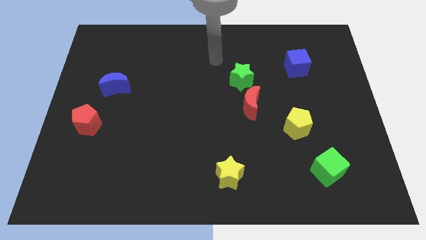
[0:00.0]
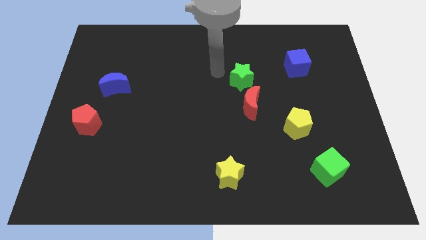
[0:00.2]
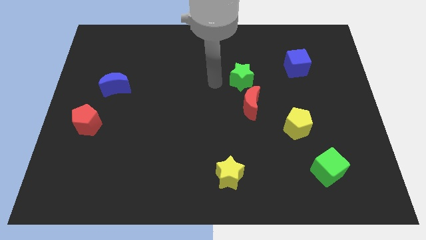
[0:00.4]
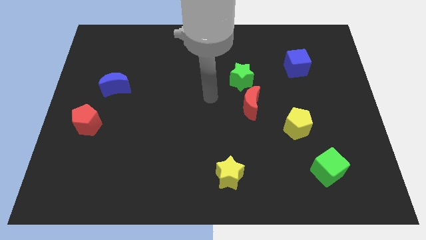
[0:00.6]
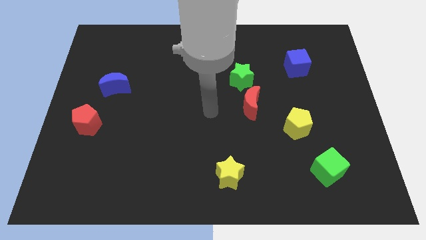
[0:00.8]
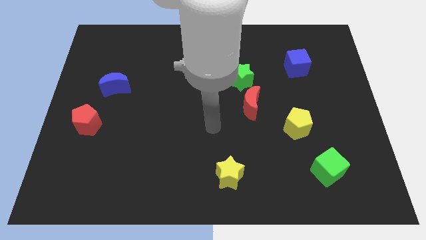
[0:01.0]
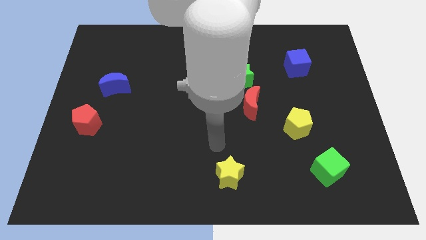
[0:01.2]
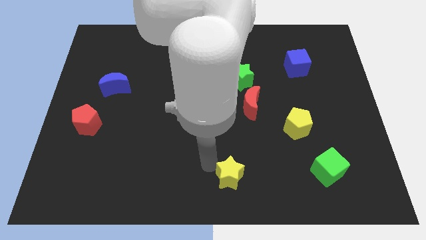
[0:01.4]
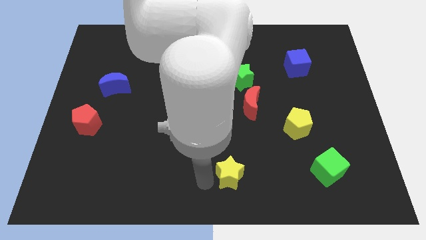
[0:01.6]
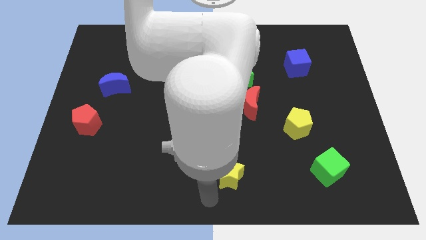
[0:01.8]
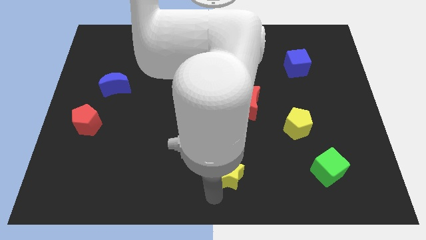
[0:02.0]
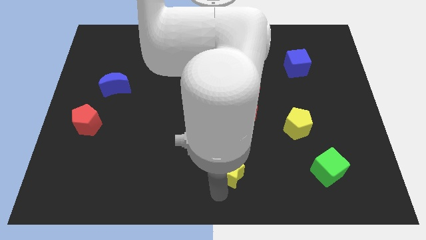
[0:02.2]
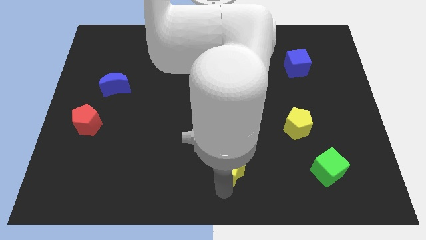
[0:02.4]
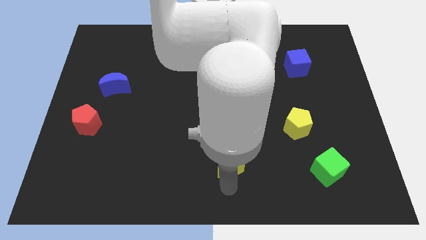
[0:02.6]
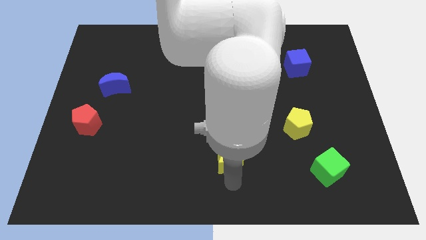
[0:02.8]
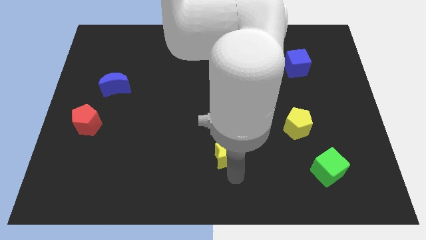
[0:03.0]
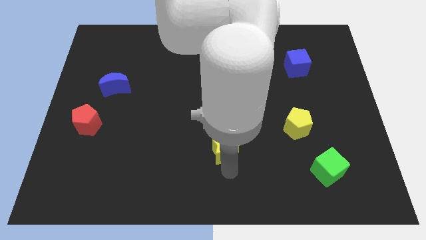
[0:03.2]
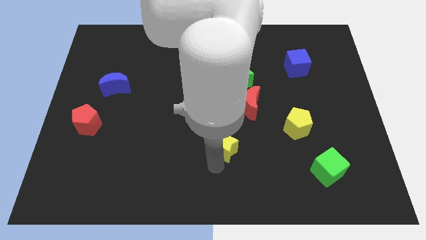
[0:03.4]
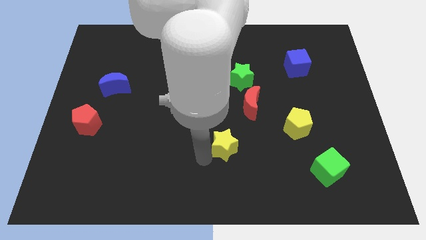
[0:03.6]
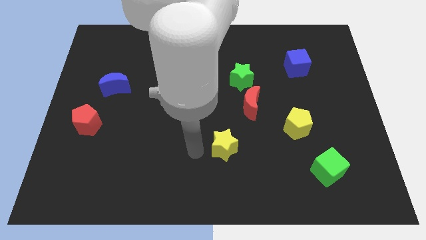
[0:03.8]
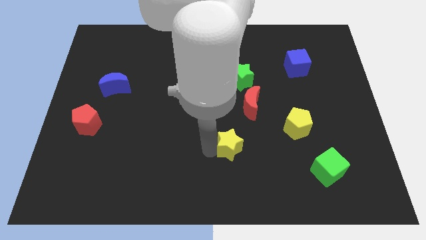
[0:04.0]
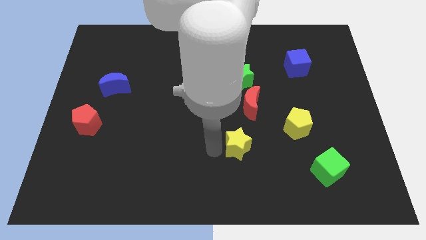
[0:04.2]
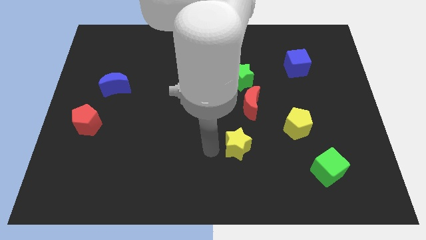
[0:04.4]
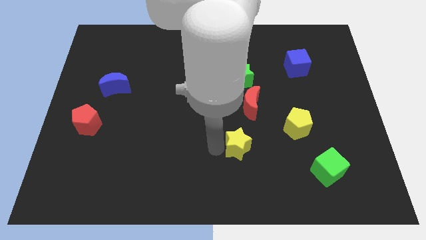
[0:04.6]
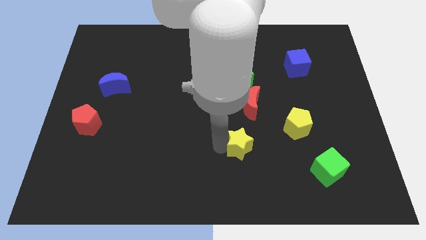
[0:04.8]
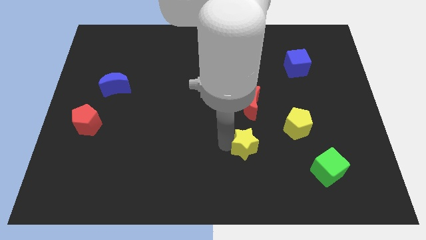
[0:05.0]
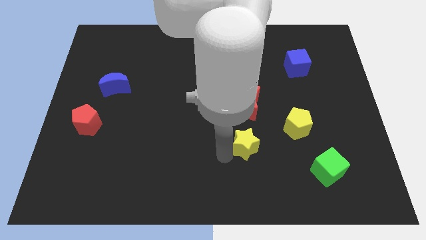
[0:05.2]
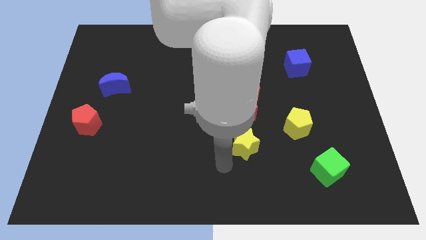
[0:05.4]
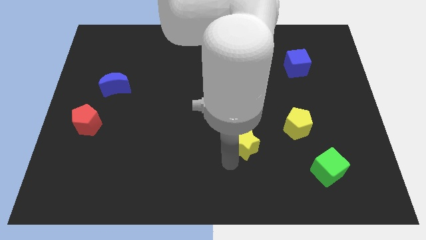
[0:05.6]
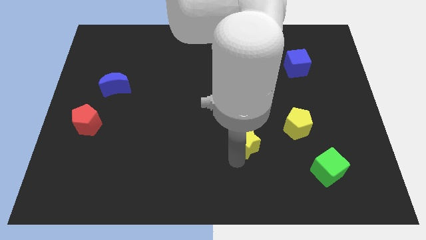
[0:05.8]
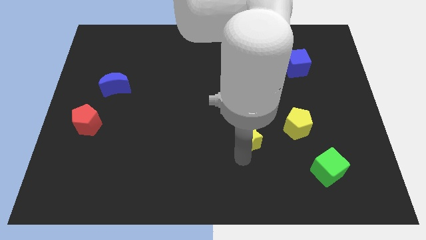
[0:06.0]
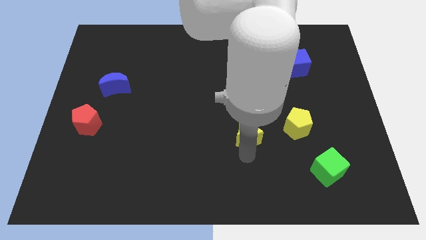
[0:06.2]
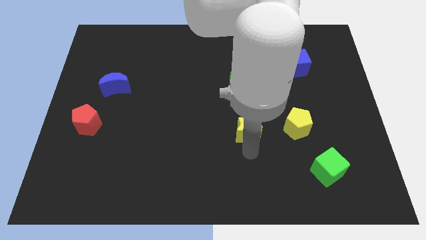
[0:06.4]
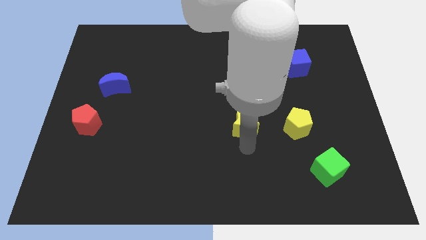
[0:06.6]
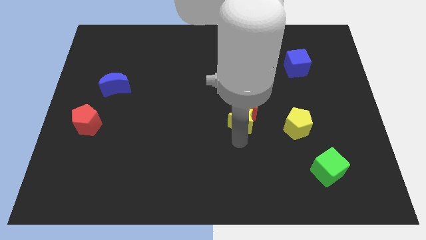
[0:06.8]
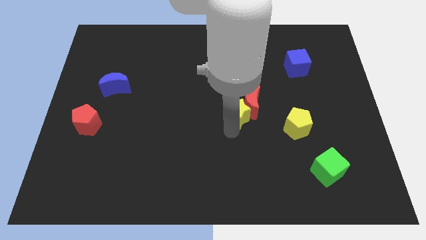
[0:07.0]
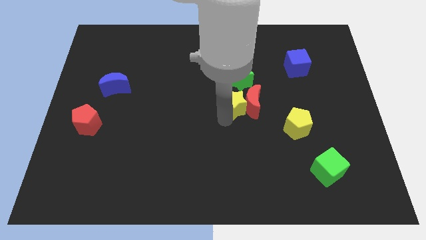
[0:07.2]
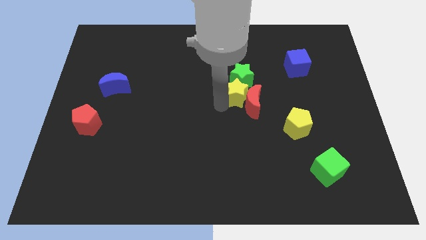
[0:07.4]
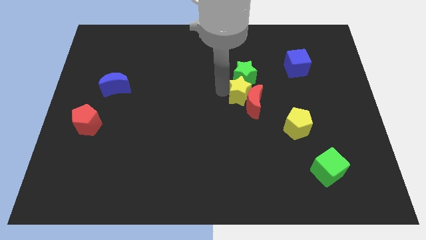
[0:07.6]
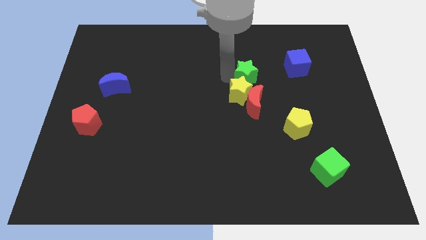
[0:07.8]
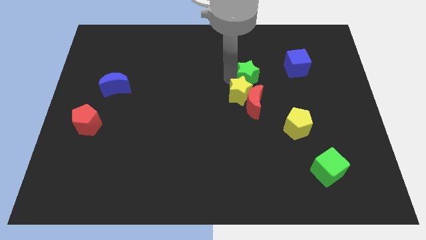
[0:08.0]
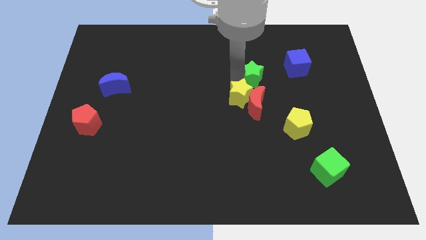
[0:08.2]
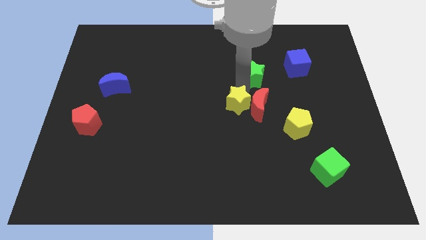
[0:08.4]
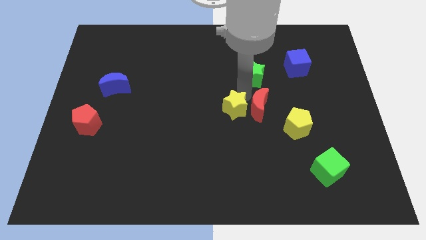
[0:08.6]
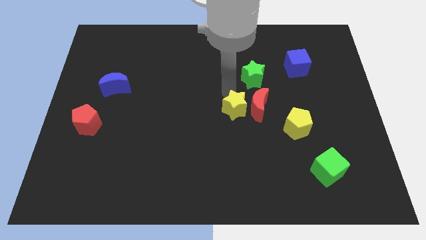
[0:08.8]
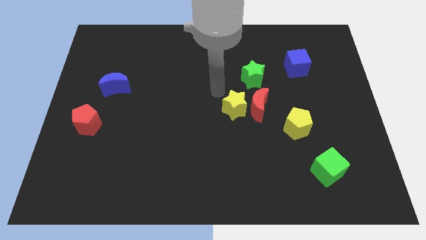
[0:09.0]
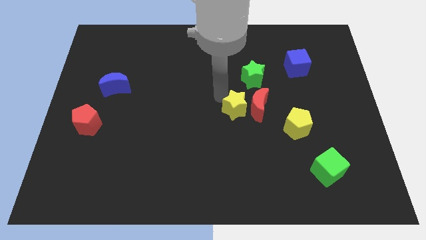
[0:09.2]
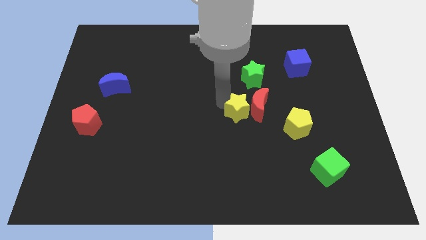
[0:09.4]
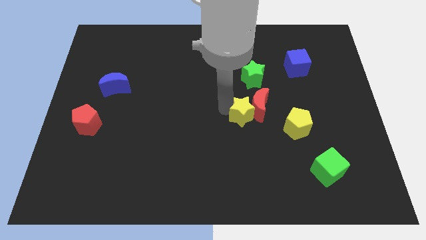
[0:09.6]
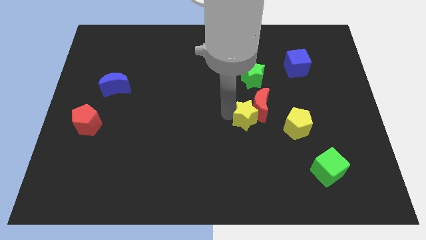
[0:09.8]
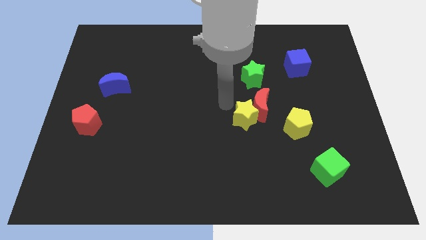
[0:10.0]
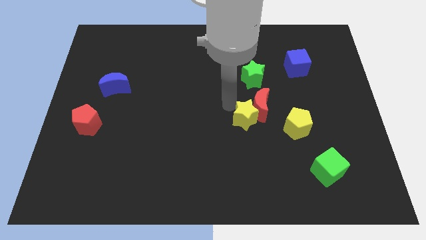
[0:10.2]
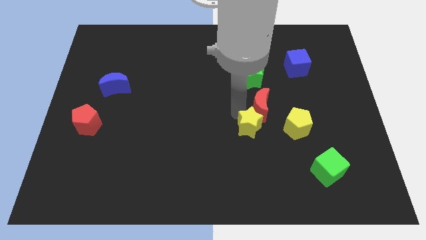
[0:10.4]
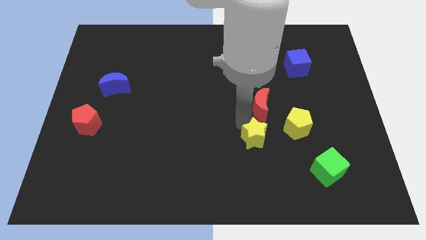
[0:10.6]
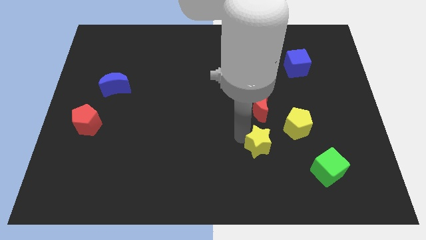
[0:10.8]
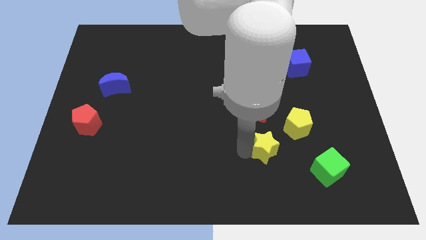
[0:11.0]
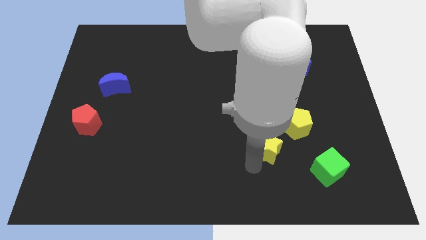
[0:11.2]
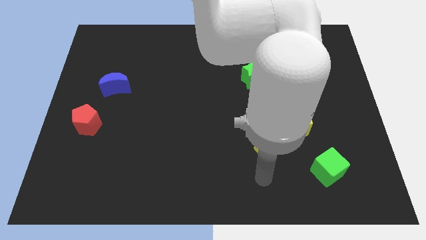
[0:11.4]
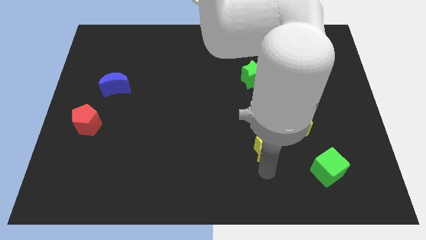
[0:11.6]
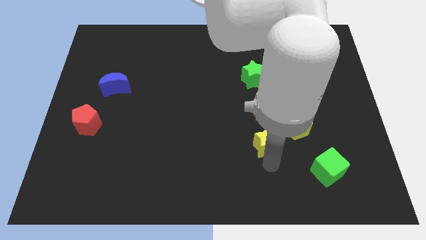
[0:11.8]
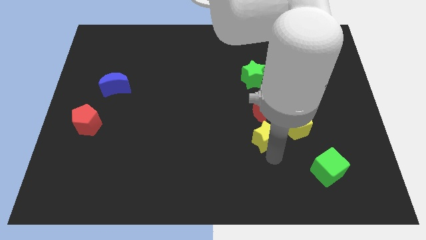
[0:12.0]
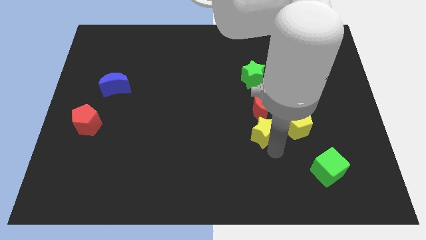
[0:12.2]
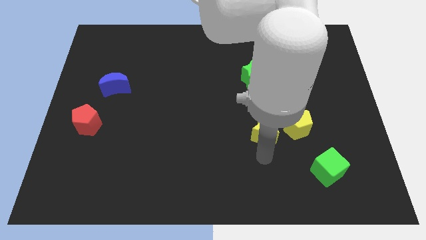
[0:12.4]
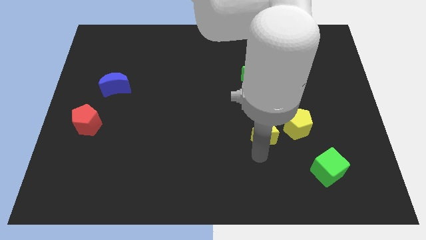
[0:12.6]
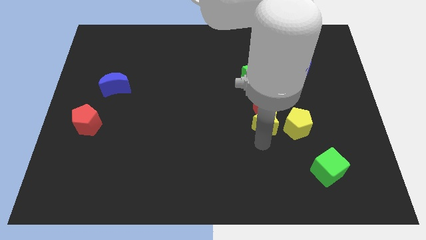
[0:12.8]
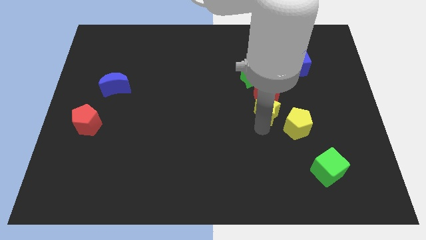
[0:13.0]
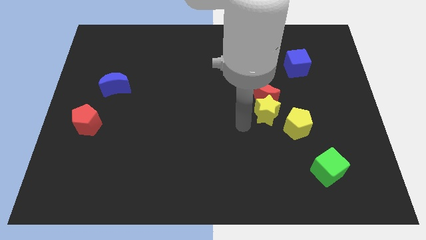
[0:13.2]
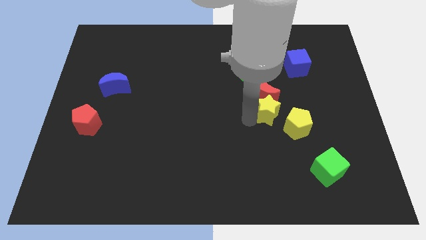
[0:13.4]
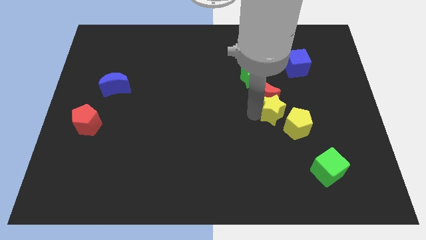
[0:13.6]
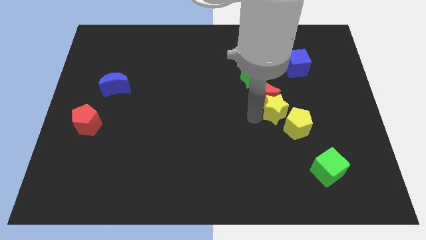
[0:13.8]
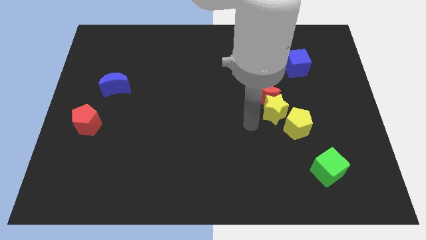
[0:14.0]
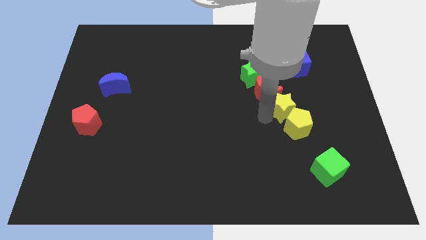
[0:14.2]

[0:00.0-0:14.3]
move the yellow star just right of the red moon
